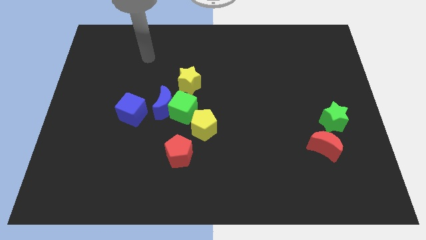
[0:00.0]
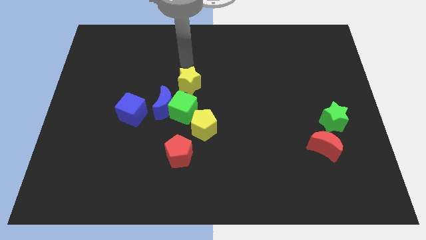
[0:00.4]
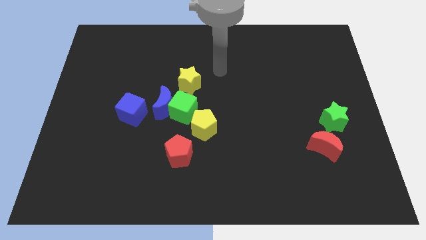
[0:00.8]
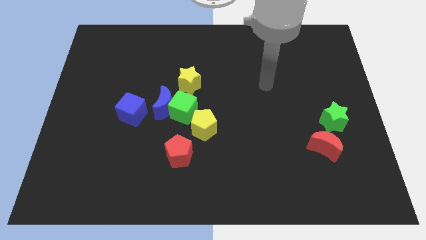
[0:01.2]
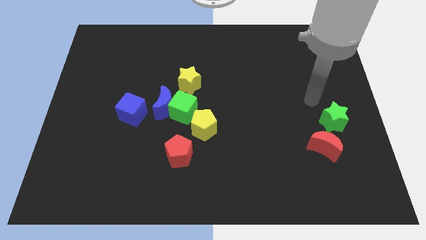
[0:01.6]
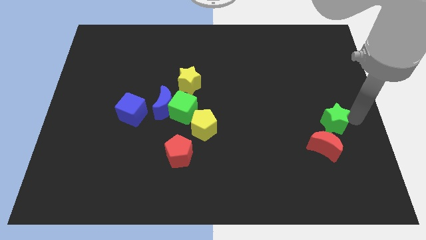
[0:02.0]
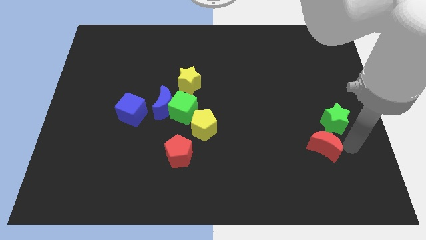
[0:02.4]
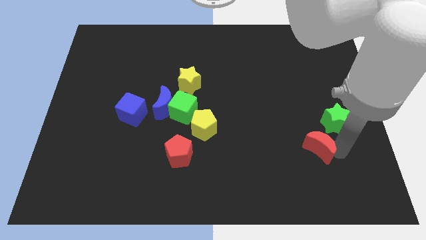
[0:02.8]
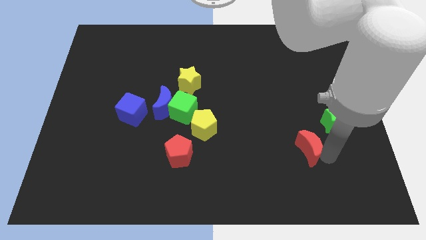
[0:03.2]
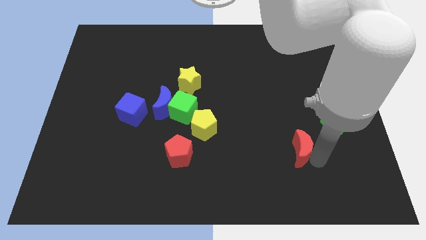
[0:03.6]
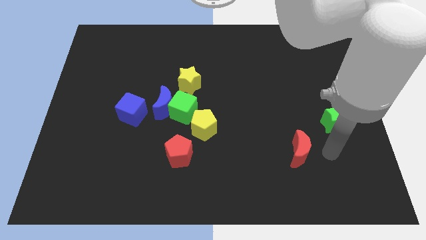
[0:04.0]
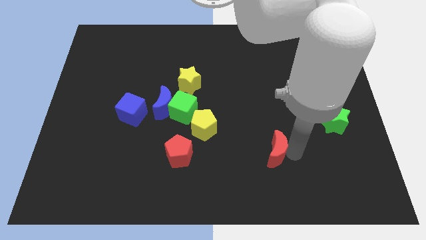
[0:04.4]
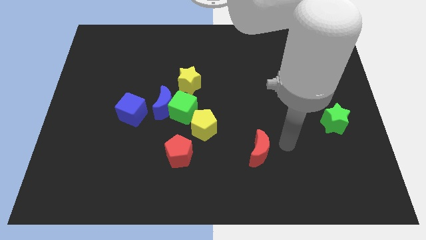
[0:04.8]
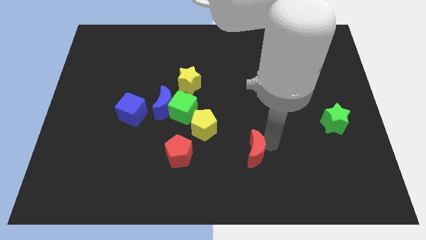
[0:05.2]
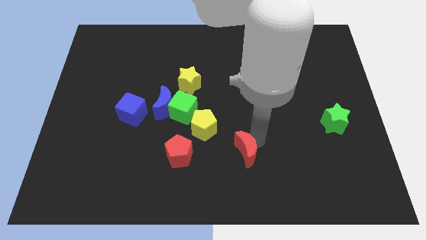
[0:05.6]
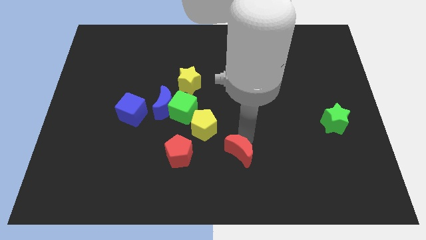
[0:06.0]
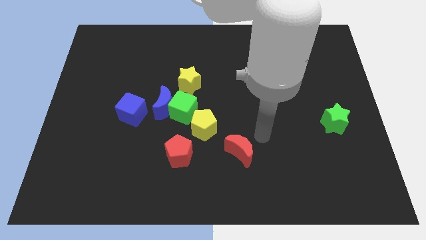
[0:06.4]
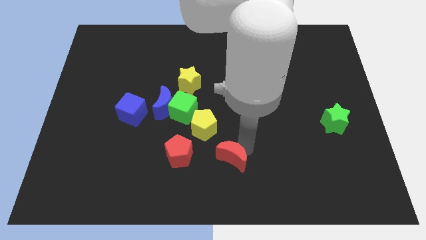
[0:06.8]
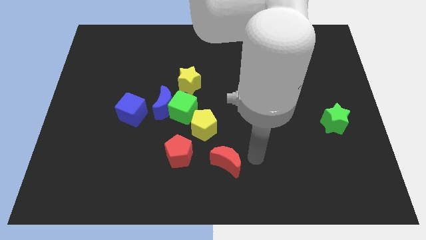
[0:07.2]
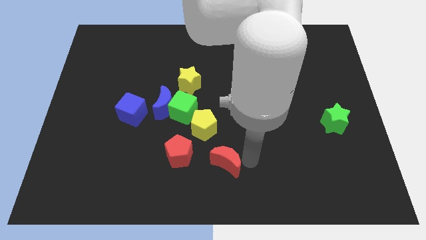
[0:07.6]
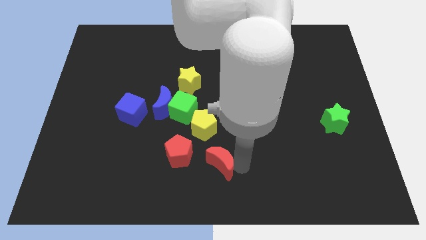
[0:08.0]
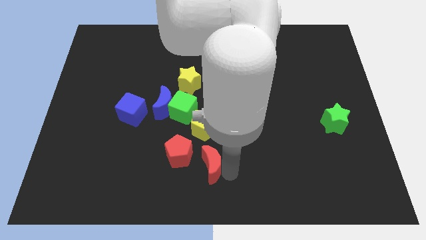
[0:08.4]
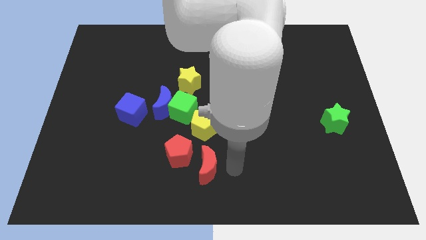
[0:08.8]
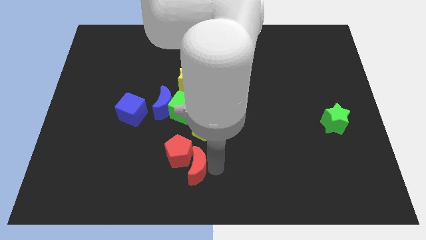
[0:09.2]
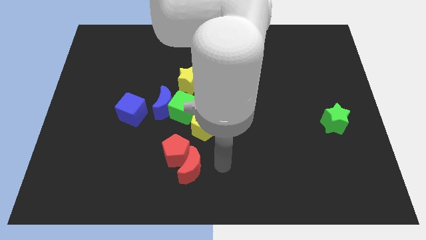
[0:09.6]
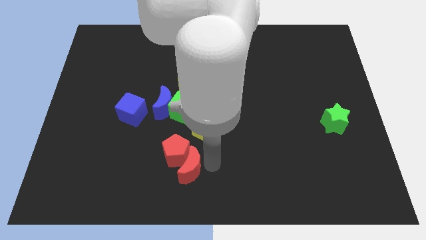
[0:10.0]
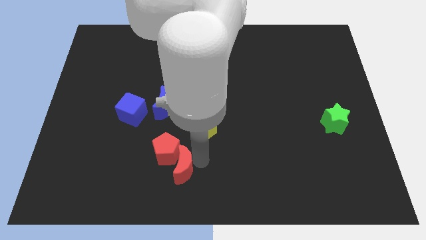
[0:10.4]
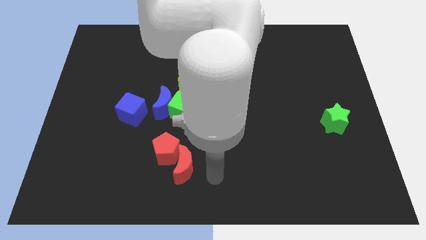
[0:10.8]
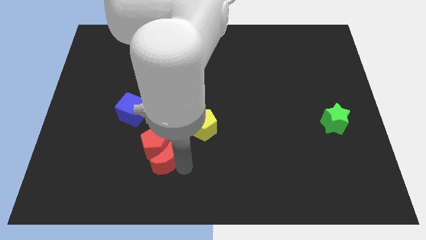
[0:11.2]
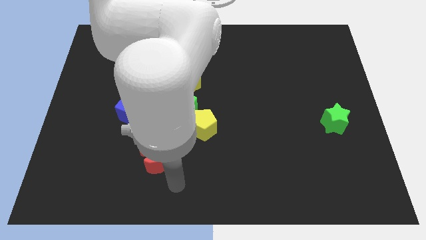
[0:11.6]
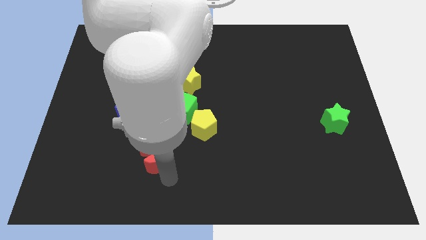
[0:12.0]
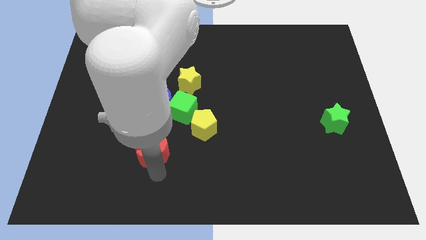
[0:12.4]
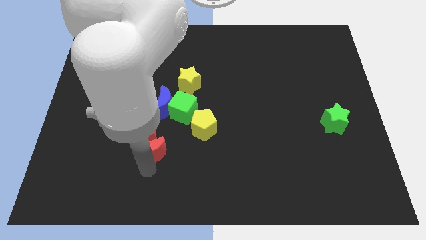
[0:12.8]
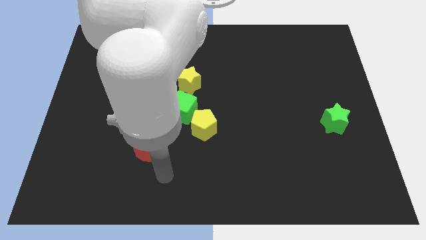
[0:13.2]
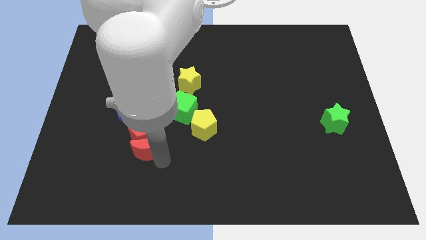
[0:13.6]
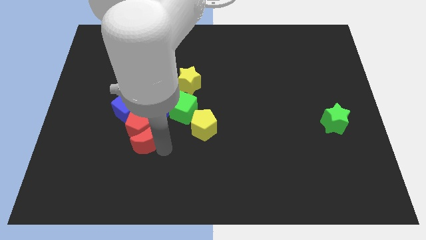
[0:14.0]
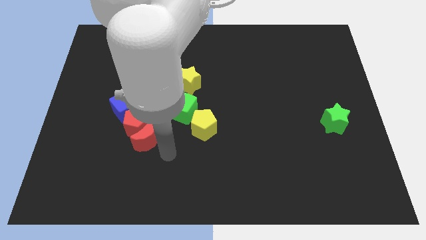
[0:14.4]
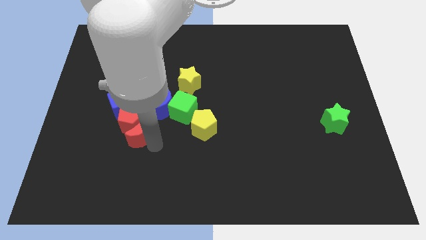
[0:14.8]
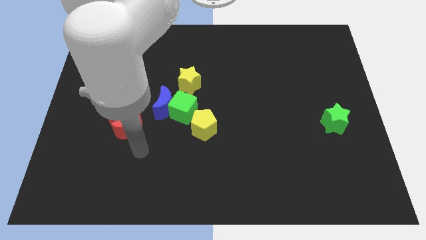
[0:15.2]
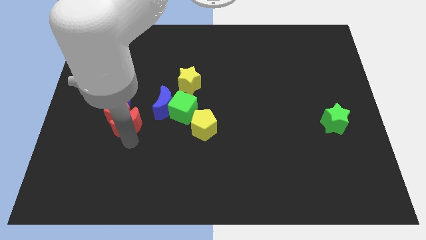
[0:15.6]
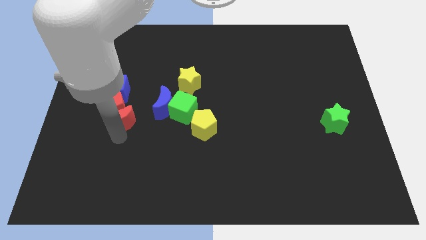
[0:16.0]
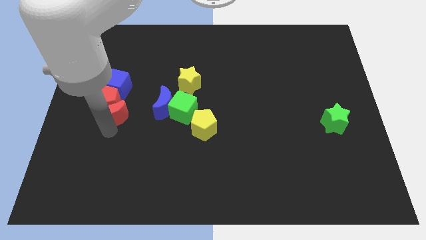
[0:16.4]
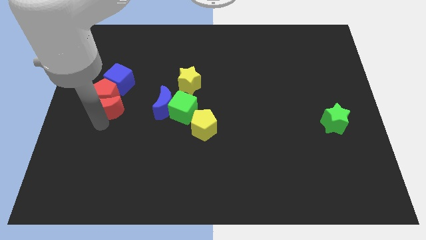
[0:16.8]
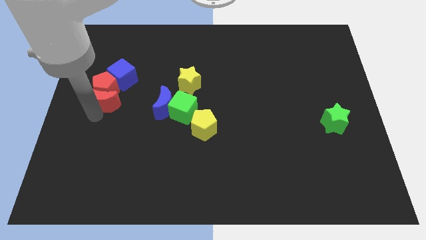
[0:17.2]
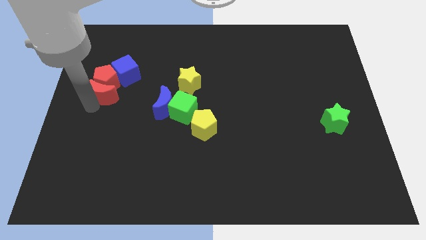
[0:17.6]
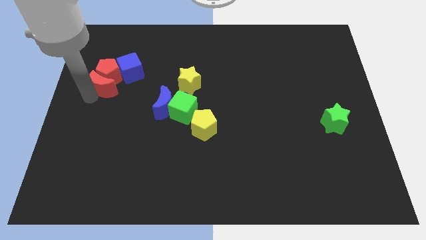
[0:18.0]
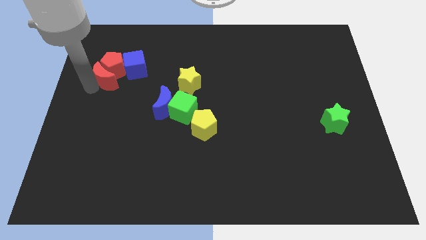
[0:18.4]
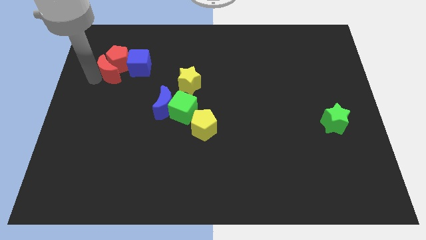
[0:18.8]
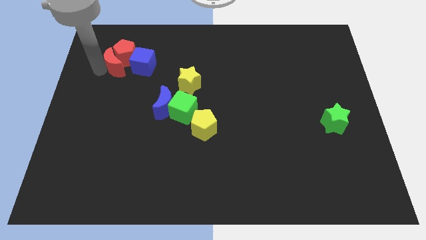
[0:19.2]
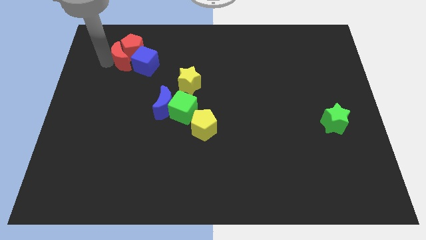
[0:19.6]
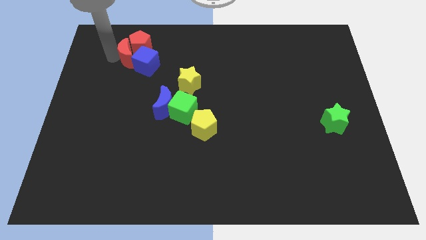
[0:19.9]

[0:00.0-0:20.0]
push the red moon to the blue cube

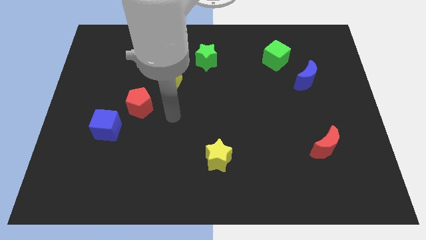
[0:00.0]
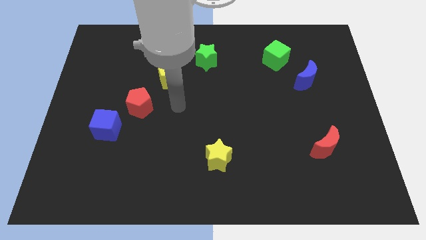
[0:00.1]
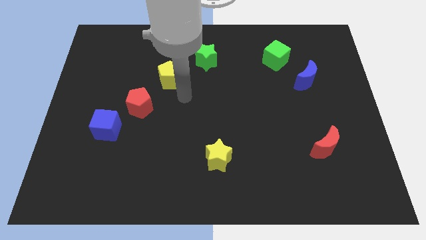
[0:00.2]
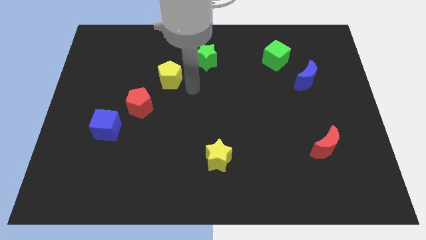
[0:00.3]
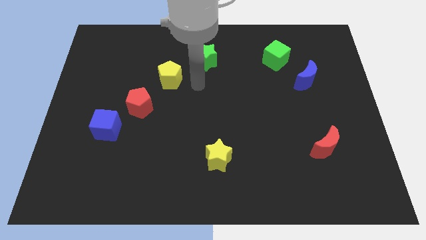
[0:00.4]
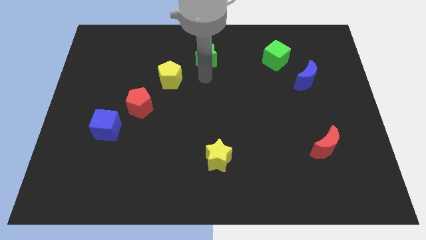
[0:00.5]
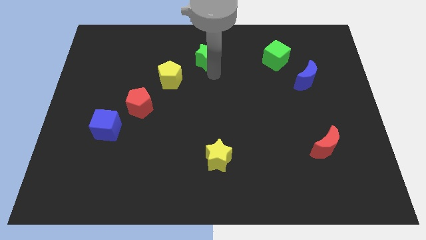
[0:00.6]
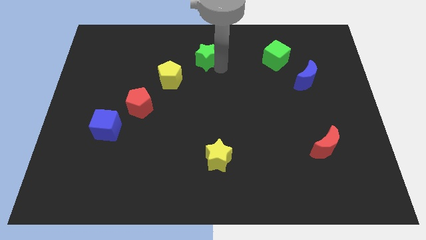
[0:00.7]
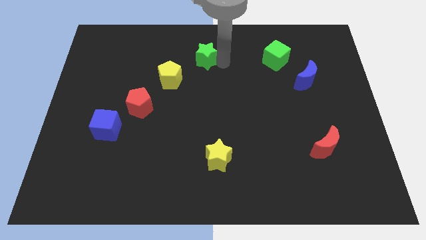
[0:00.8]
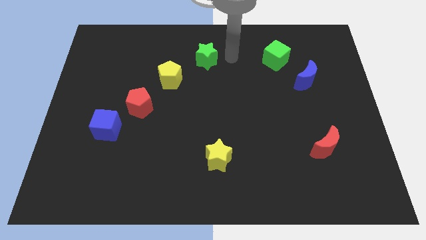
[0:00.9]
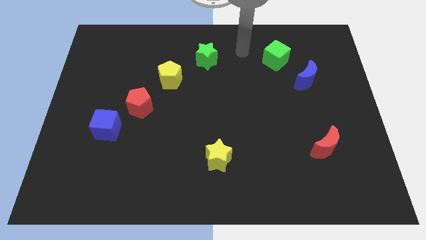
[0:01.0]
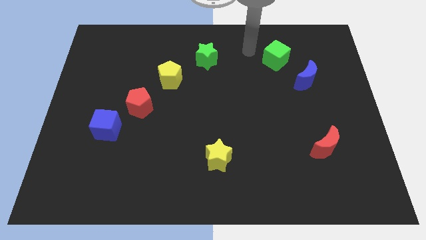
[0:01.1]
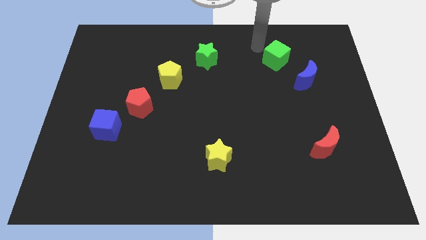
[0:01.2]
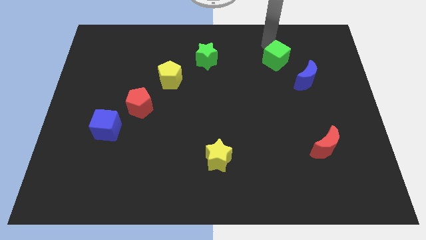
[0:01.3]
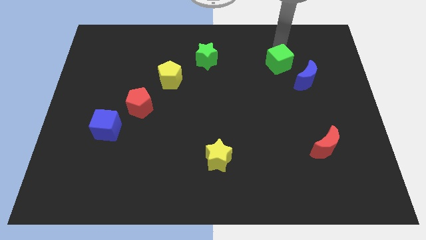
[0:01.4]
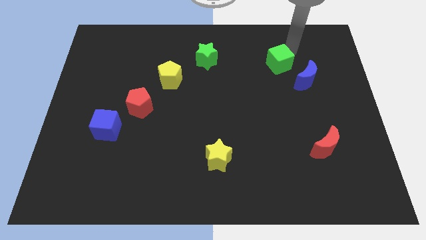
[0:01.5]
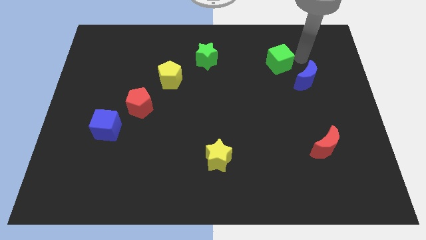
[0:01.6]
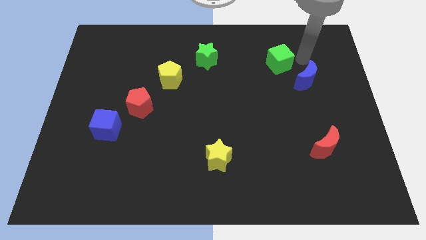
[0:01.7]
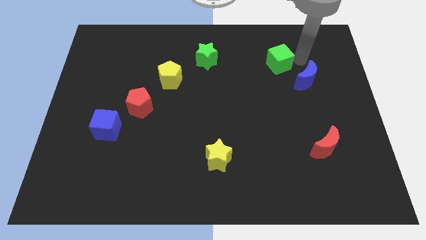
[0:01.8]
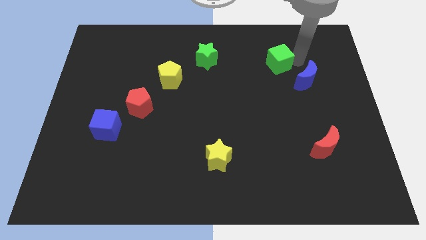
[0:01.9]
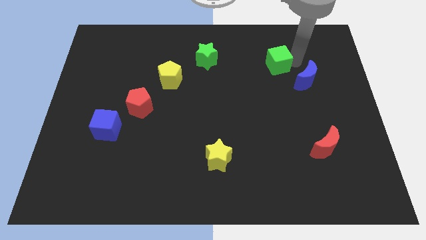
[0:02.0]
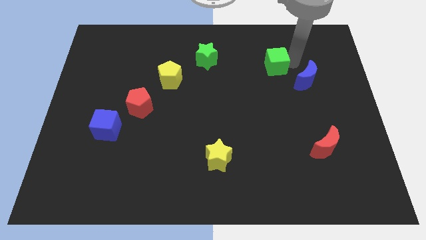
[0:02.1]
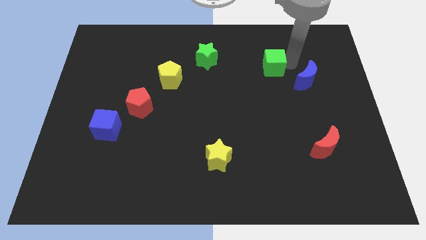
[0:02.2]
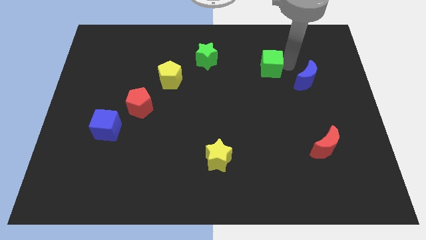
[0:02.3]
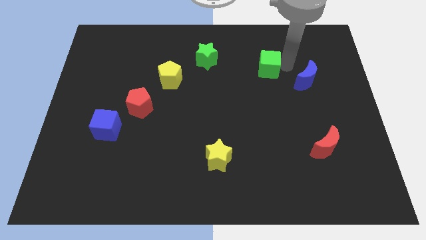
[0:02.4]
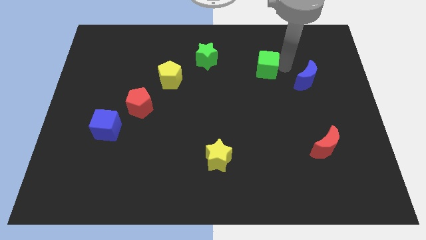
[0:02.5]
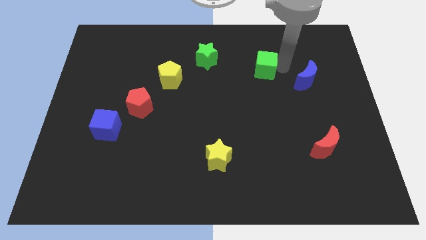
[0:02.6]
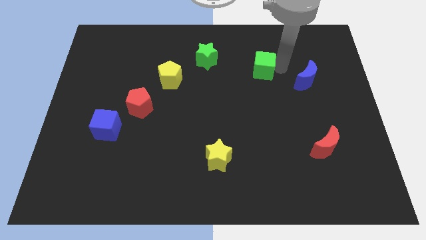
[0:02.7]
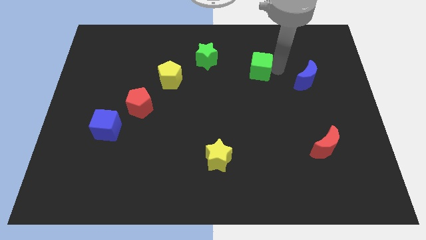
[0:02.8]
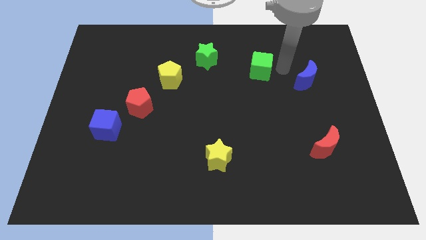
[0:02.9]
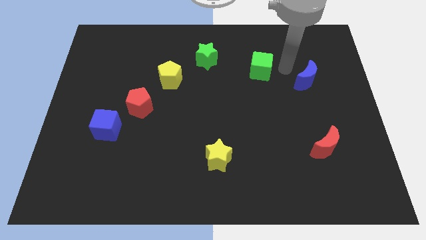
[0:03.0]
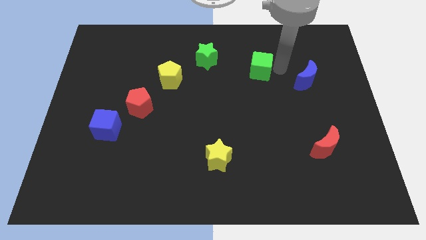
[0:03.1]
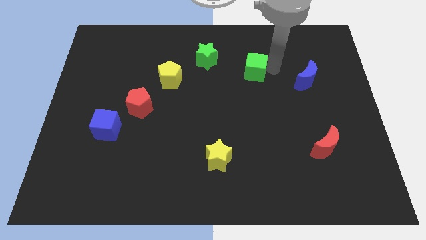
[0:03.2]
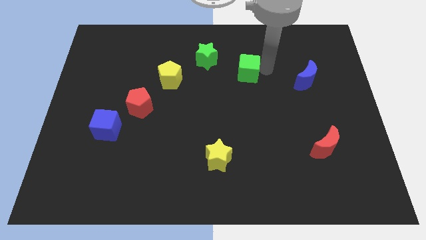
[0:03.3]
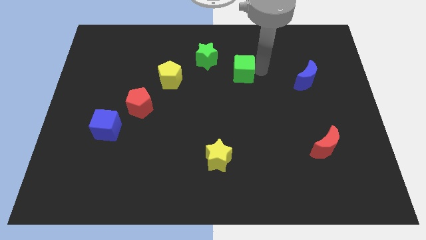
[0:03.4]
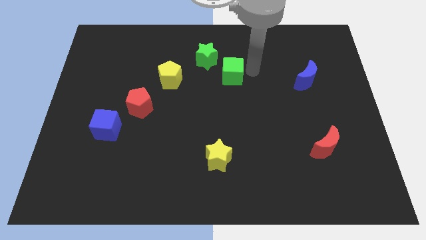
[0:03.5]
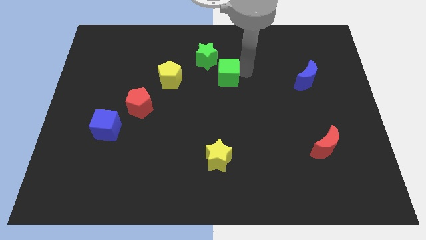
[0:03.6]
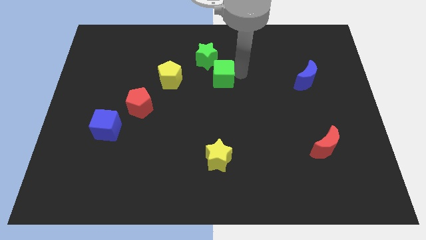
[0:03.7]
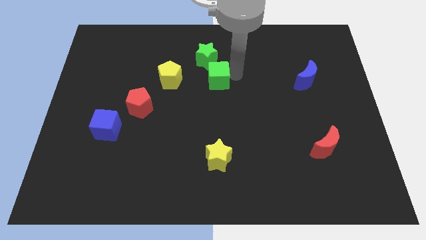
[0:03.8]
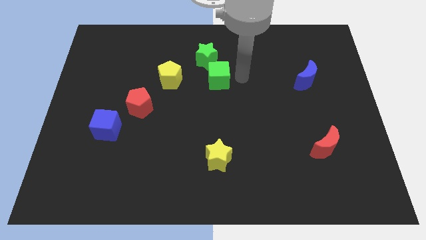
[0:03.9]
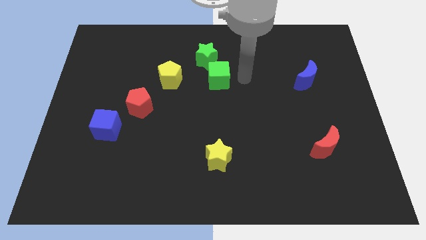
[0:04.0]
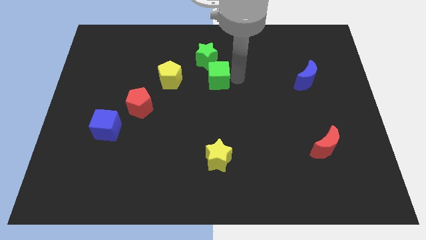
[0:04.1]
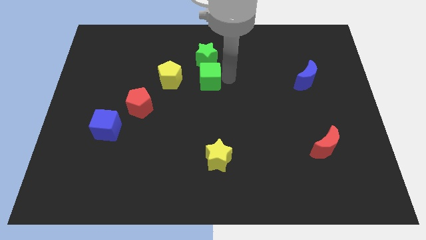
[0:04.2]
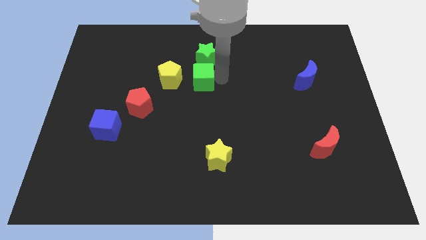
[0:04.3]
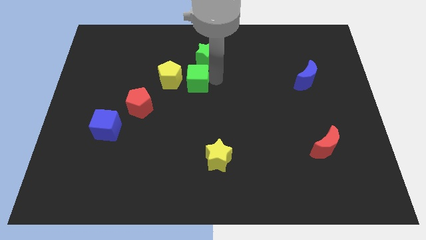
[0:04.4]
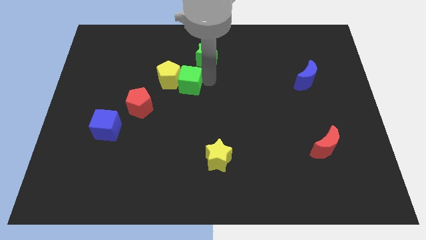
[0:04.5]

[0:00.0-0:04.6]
push the green cube to the yellow pentagon
